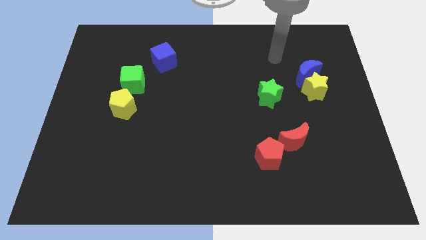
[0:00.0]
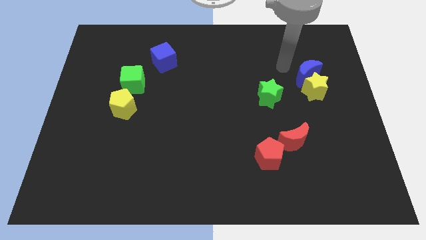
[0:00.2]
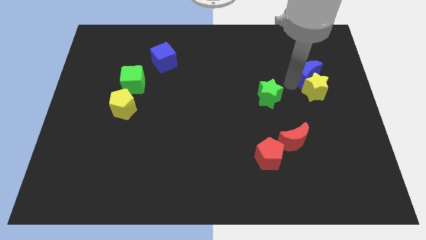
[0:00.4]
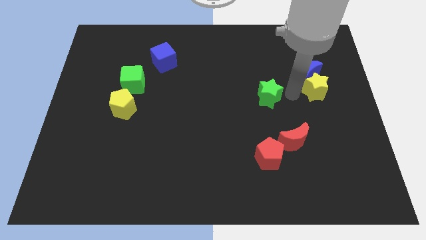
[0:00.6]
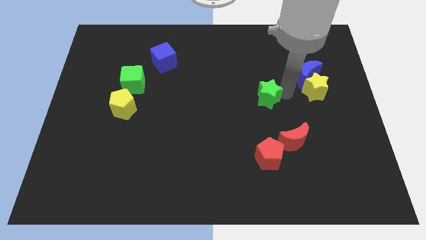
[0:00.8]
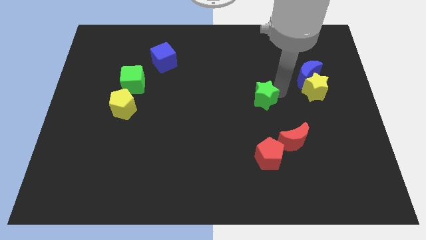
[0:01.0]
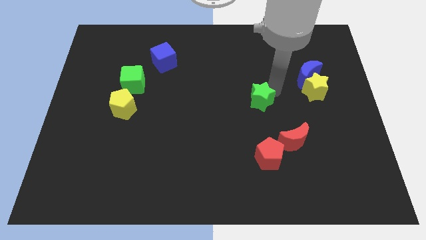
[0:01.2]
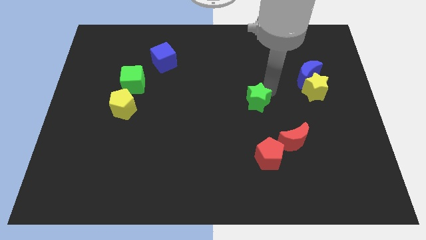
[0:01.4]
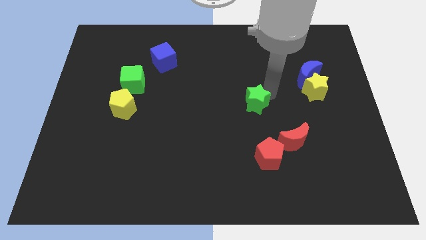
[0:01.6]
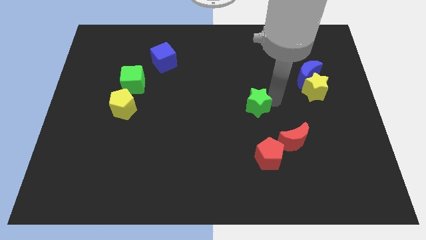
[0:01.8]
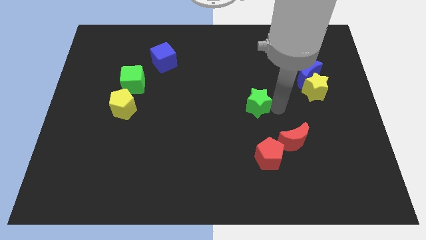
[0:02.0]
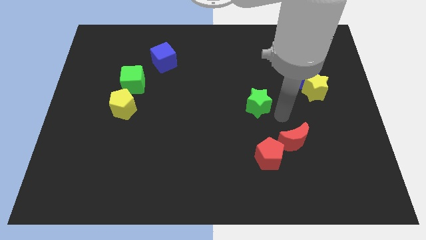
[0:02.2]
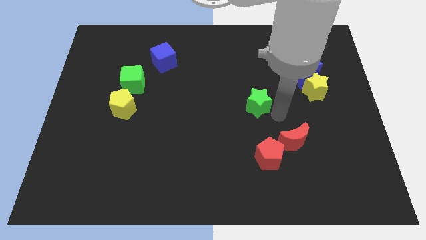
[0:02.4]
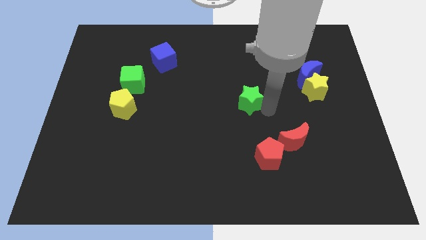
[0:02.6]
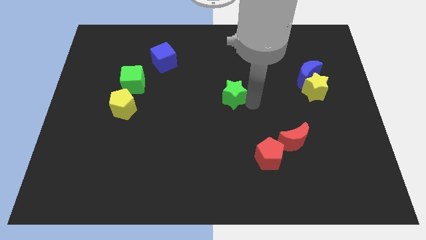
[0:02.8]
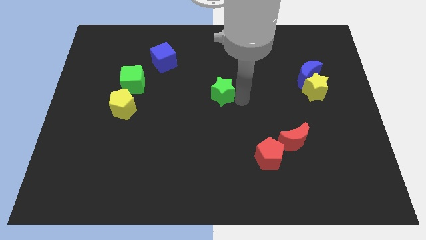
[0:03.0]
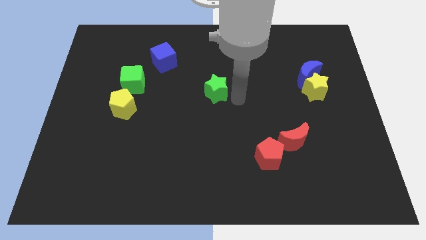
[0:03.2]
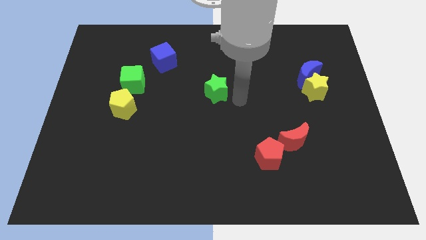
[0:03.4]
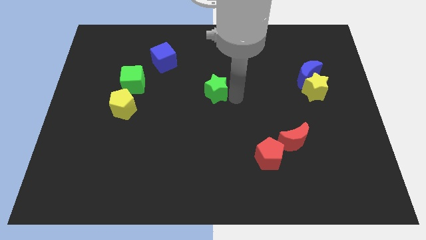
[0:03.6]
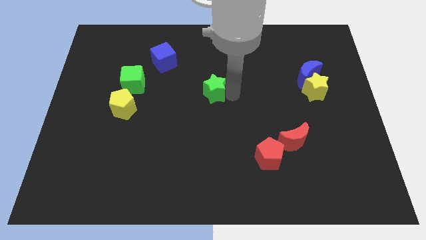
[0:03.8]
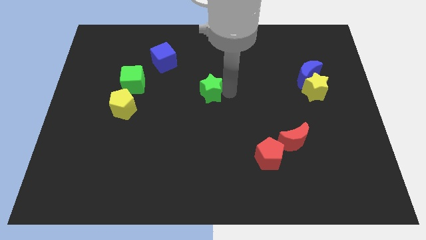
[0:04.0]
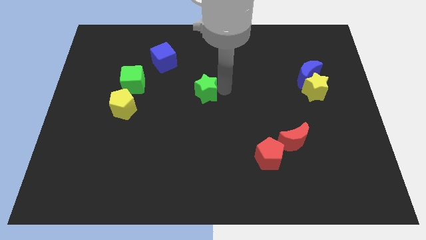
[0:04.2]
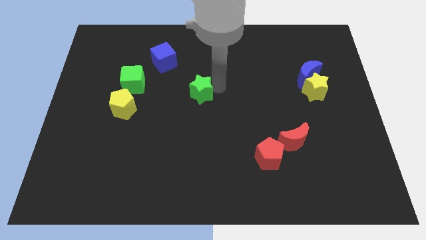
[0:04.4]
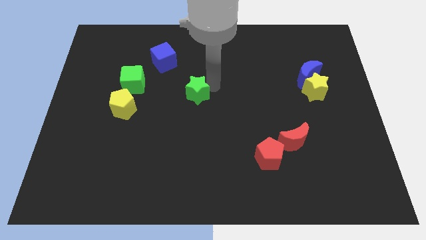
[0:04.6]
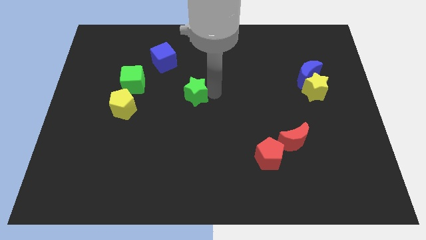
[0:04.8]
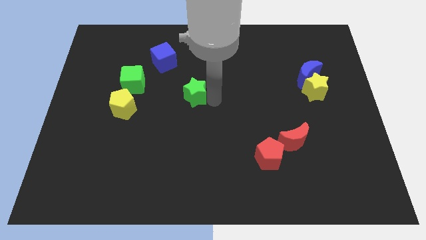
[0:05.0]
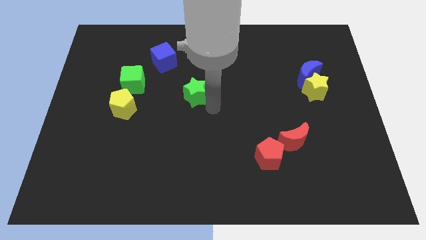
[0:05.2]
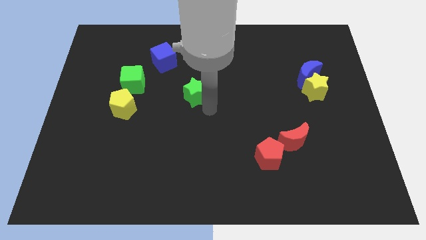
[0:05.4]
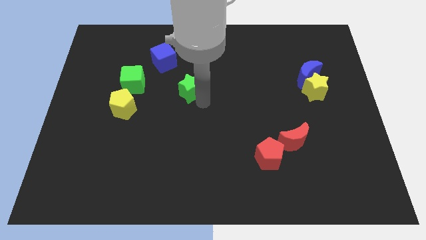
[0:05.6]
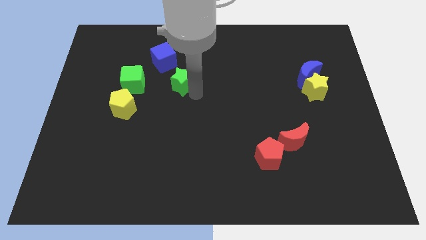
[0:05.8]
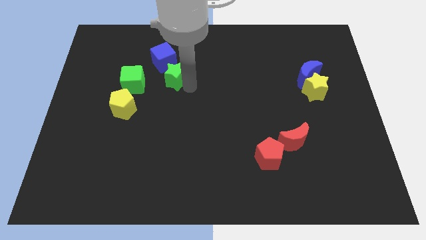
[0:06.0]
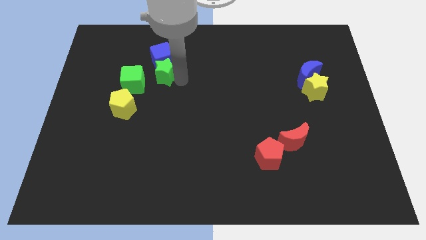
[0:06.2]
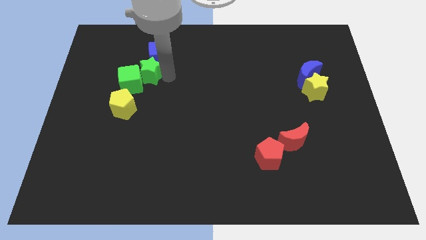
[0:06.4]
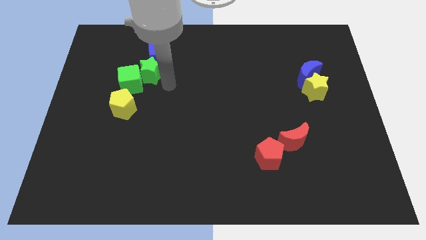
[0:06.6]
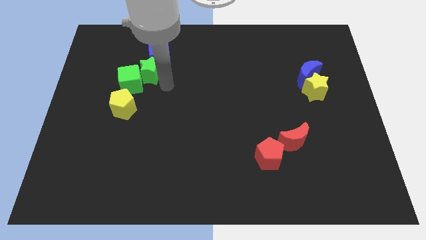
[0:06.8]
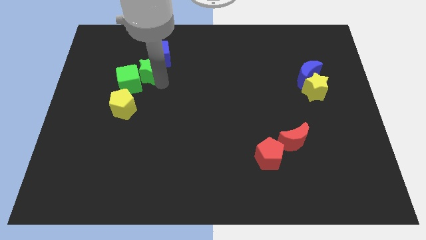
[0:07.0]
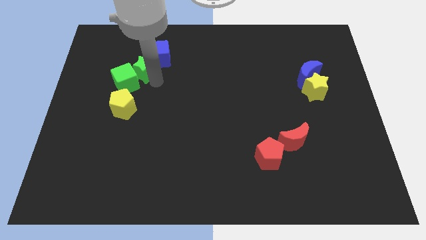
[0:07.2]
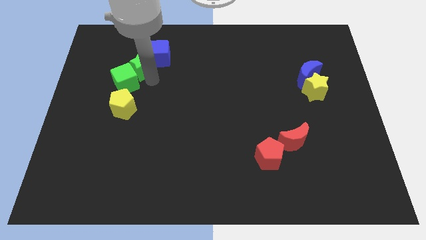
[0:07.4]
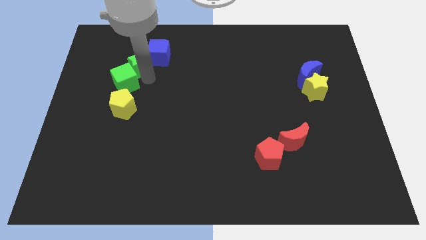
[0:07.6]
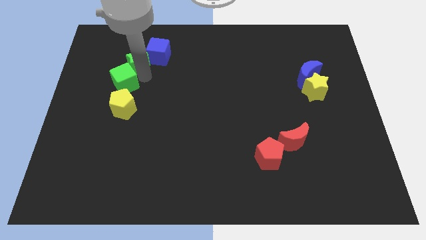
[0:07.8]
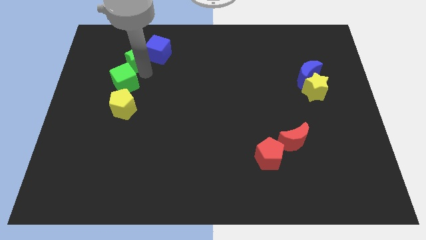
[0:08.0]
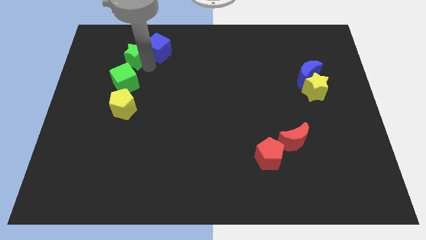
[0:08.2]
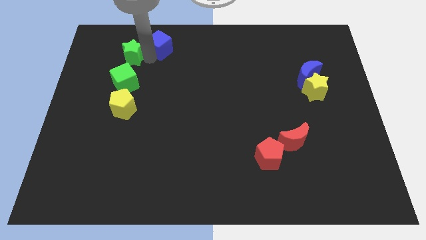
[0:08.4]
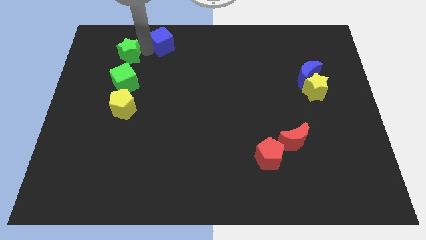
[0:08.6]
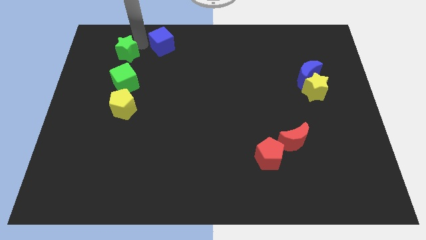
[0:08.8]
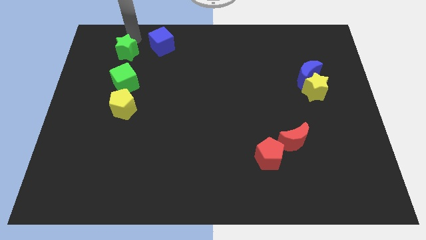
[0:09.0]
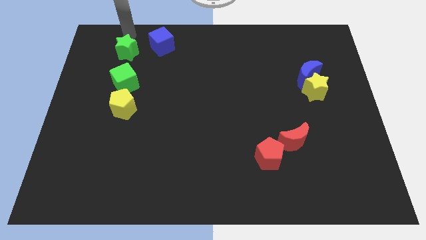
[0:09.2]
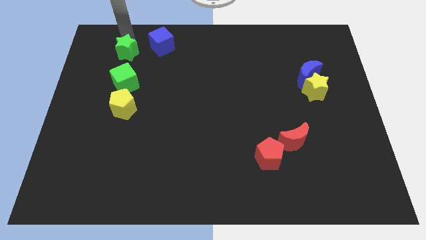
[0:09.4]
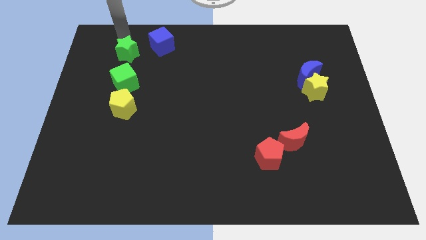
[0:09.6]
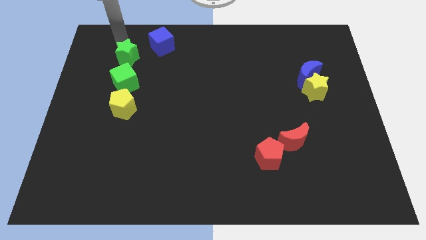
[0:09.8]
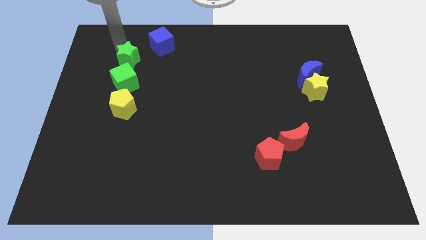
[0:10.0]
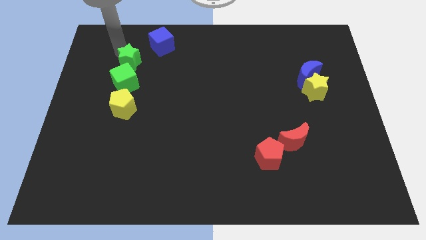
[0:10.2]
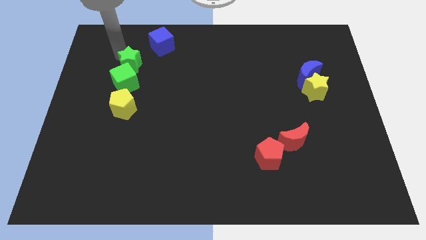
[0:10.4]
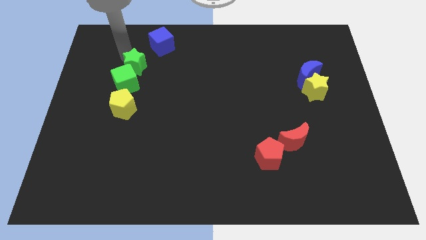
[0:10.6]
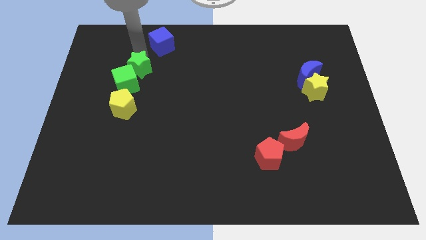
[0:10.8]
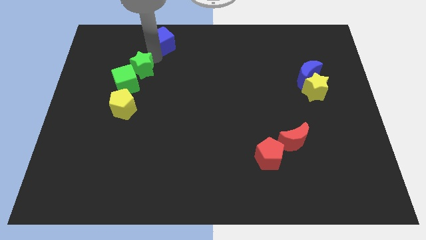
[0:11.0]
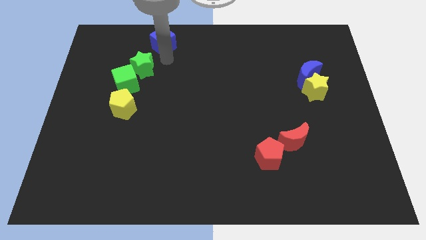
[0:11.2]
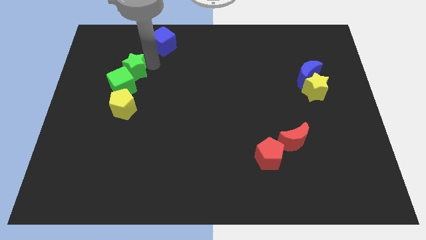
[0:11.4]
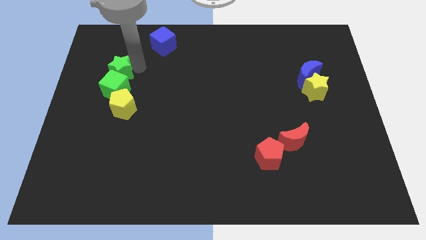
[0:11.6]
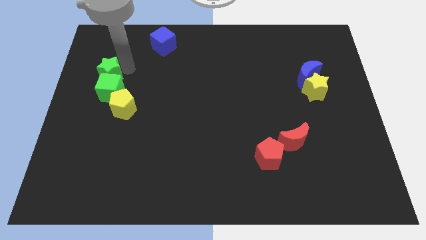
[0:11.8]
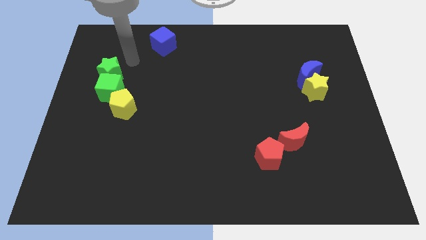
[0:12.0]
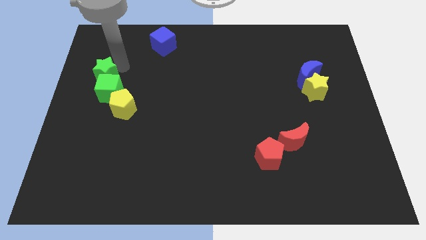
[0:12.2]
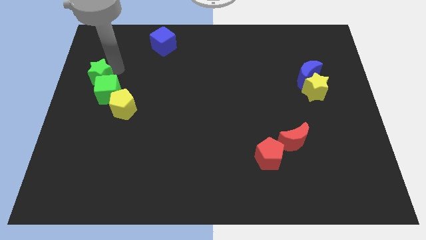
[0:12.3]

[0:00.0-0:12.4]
move the green star to the left side
